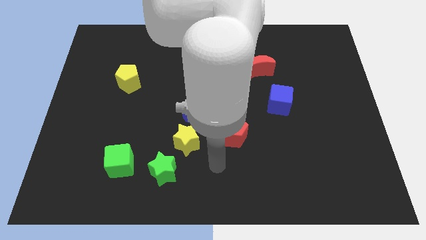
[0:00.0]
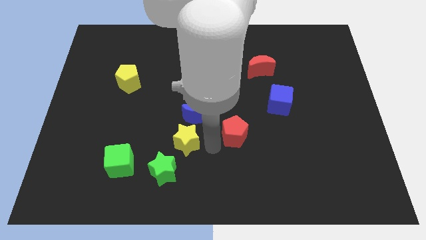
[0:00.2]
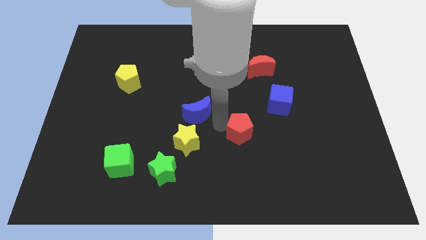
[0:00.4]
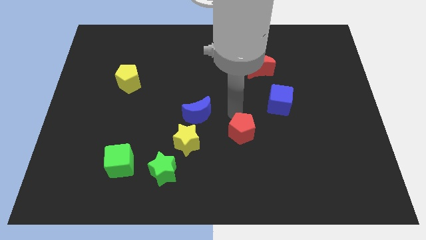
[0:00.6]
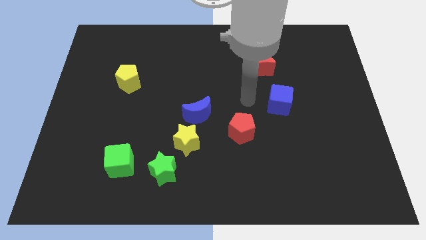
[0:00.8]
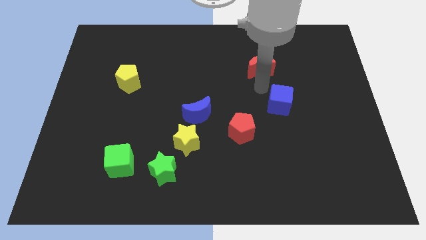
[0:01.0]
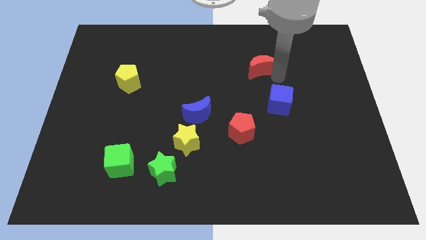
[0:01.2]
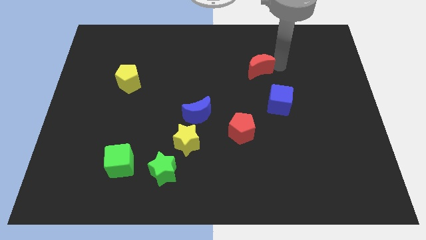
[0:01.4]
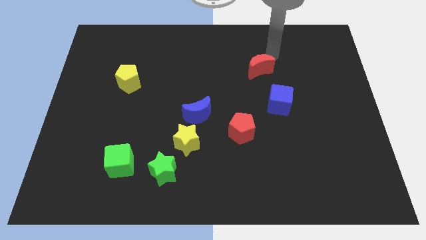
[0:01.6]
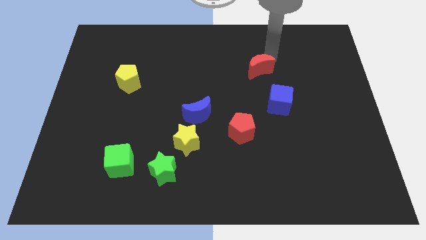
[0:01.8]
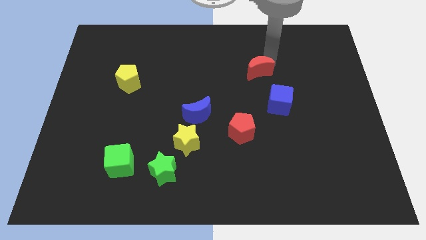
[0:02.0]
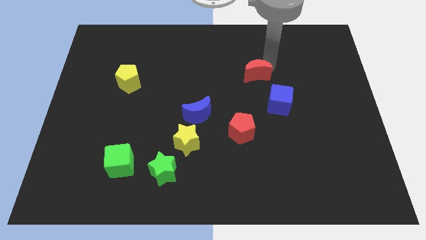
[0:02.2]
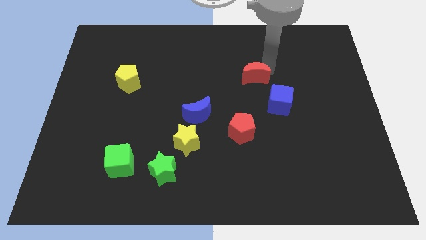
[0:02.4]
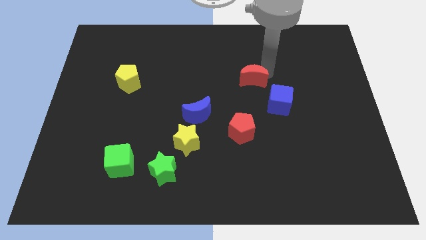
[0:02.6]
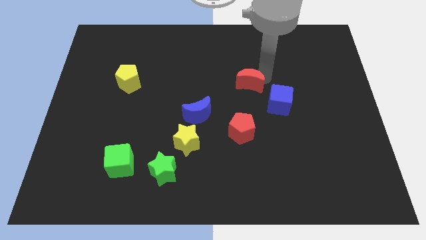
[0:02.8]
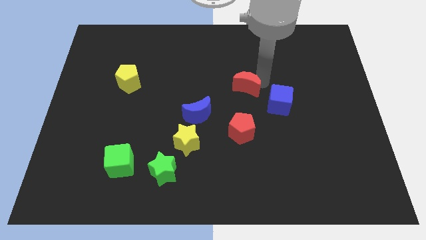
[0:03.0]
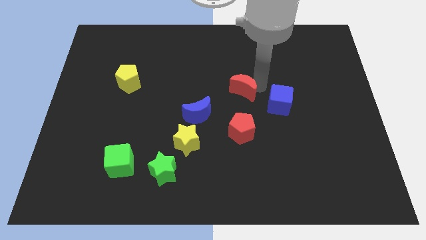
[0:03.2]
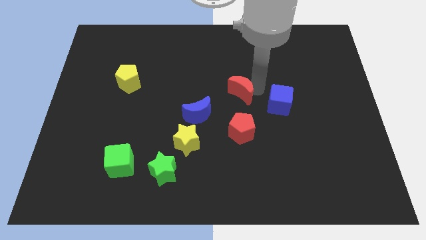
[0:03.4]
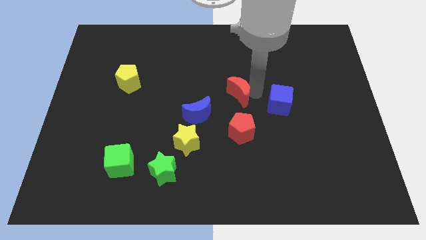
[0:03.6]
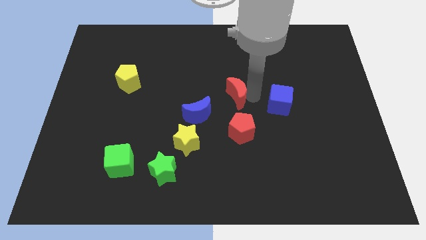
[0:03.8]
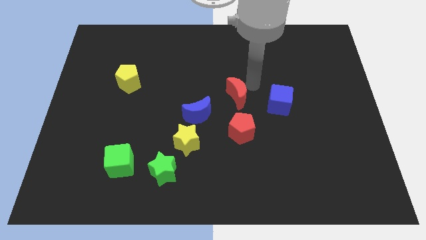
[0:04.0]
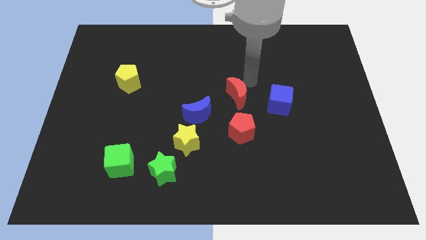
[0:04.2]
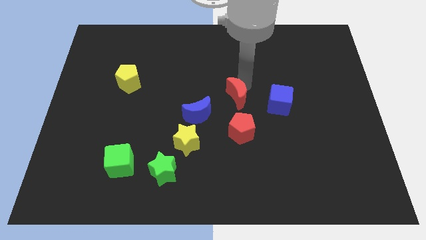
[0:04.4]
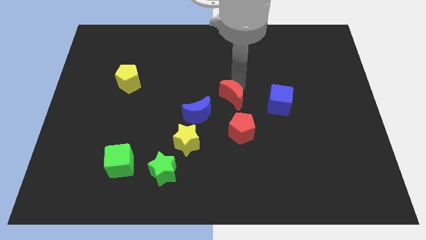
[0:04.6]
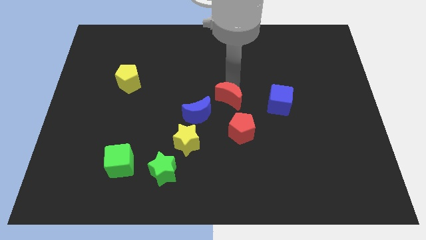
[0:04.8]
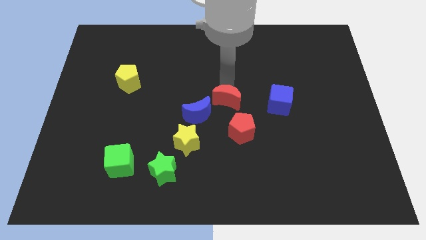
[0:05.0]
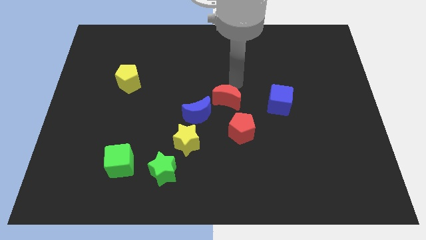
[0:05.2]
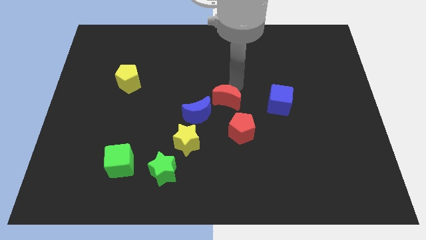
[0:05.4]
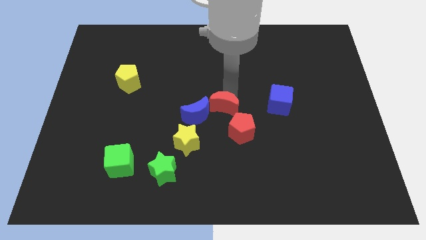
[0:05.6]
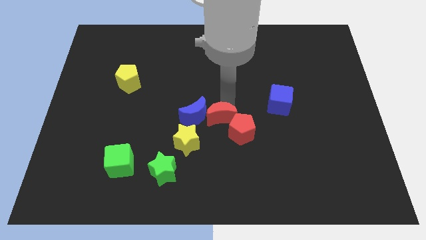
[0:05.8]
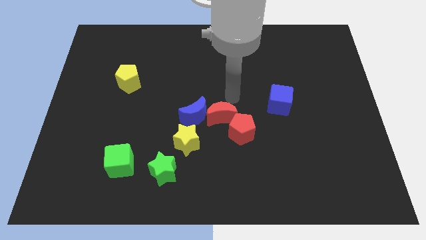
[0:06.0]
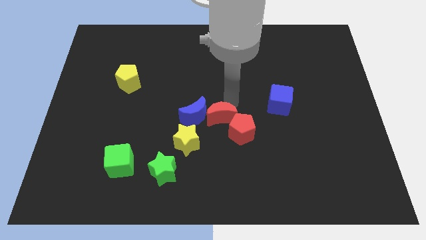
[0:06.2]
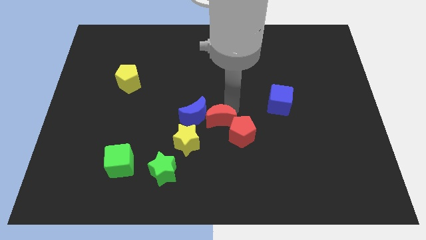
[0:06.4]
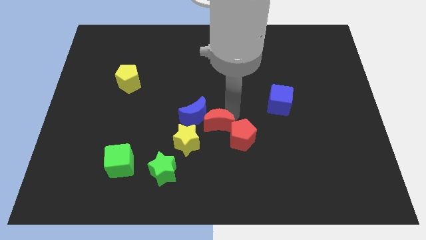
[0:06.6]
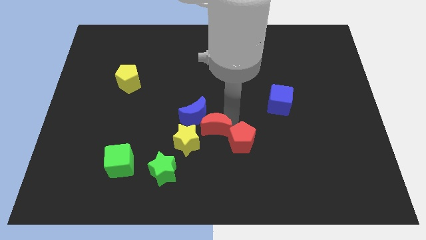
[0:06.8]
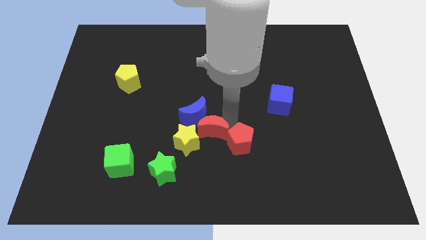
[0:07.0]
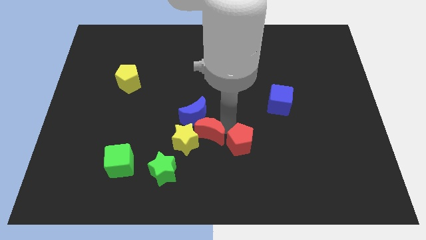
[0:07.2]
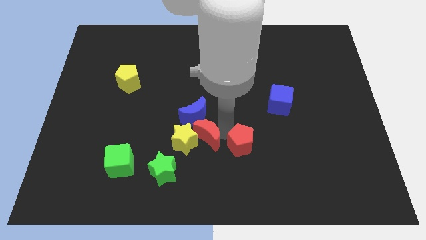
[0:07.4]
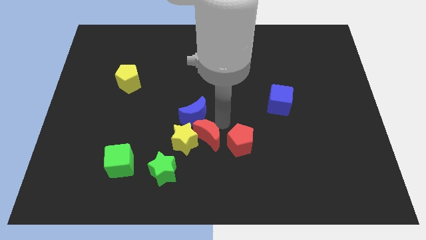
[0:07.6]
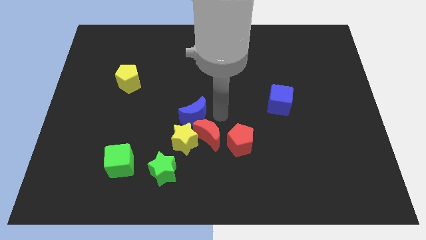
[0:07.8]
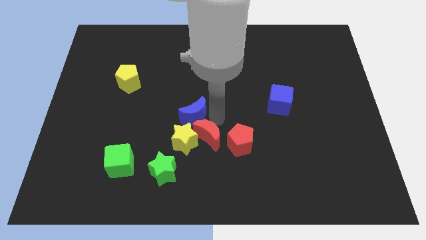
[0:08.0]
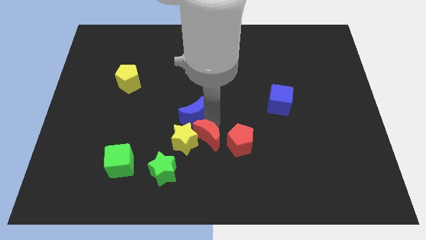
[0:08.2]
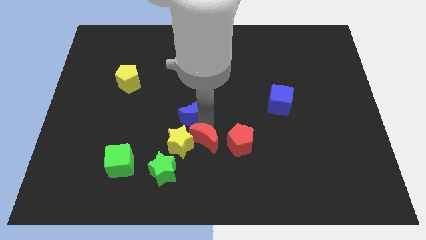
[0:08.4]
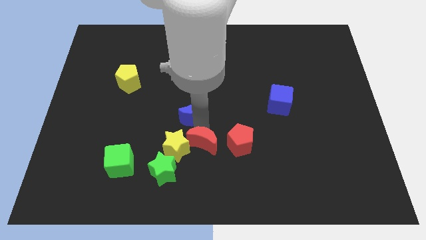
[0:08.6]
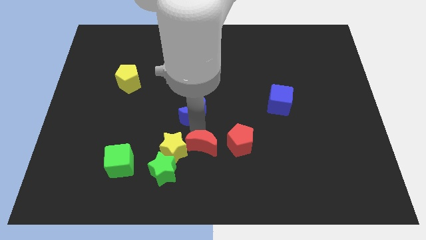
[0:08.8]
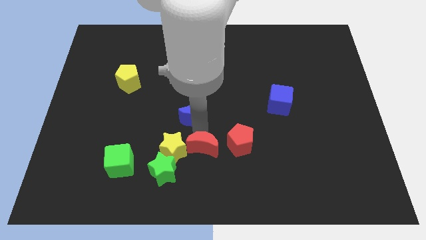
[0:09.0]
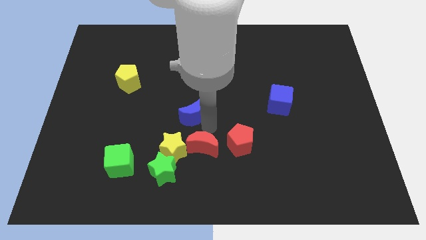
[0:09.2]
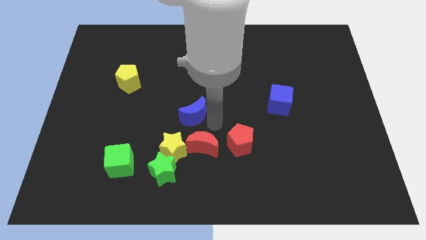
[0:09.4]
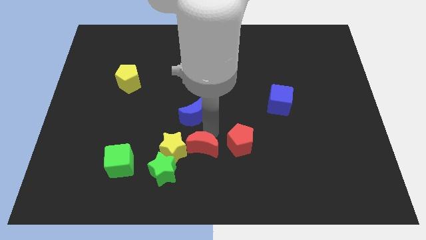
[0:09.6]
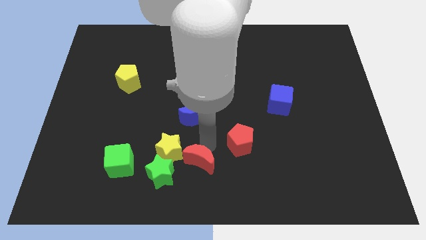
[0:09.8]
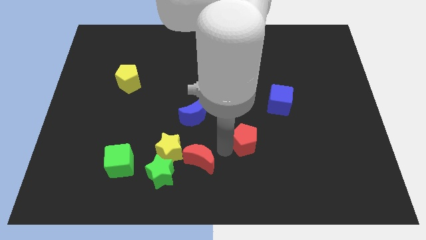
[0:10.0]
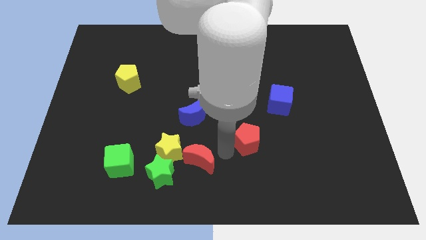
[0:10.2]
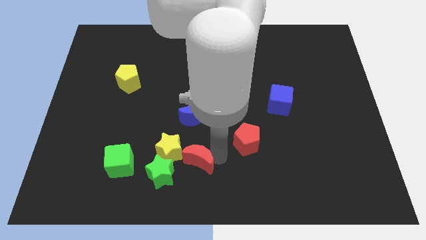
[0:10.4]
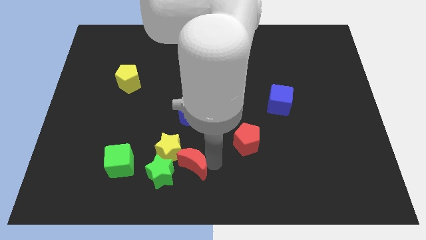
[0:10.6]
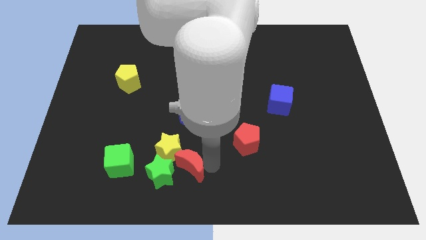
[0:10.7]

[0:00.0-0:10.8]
push the red moon towards the green star

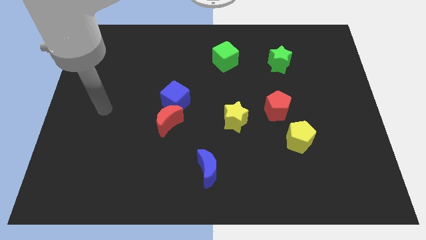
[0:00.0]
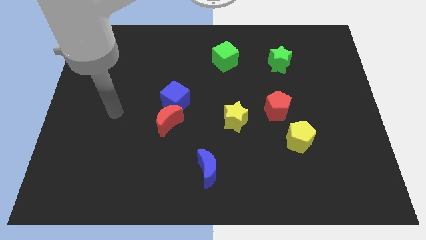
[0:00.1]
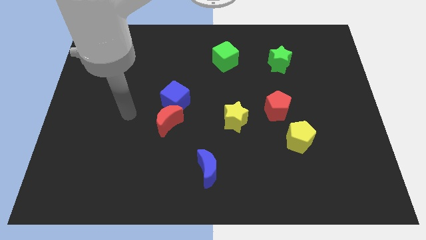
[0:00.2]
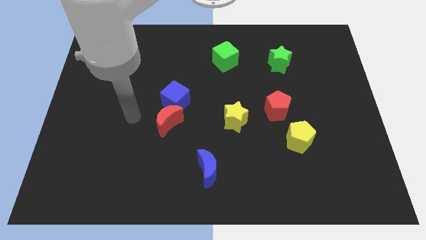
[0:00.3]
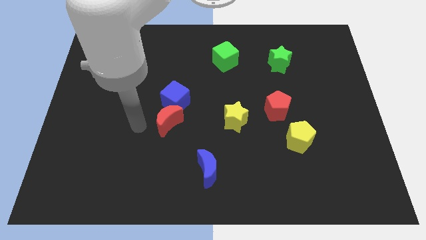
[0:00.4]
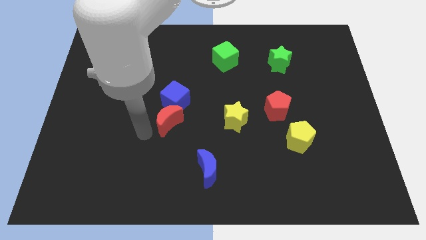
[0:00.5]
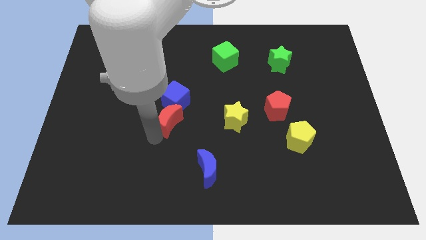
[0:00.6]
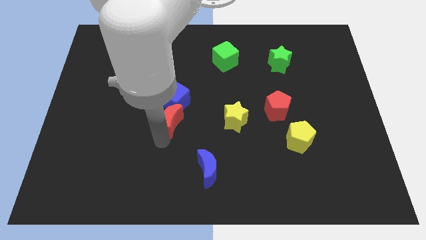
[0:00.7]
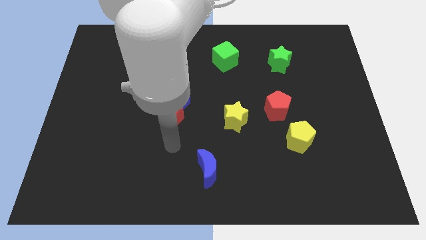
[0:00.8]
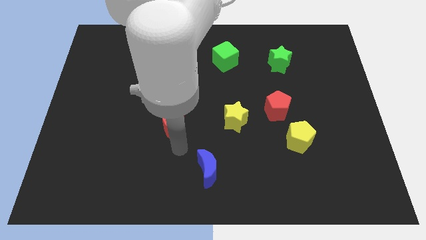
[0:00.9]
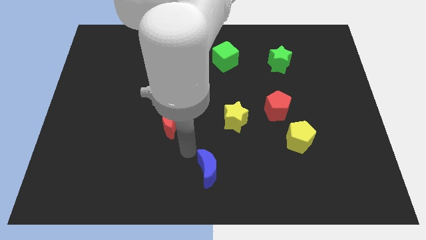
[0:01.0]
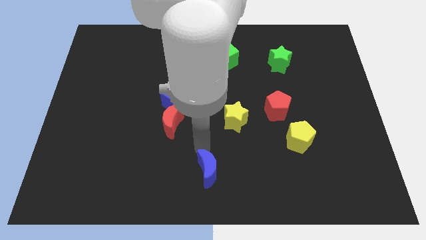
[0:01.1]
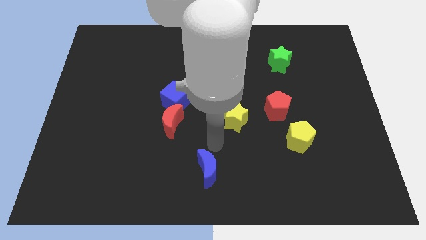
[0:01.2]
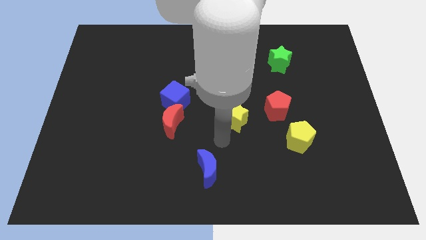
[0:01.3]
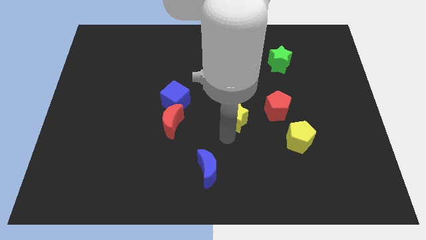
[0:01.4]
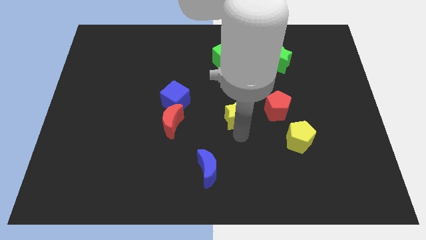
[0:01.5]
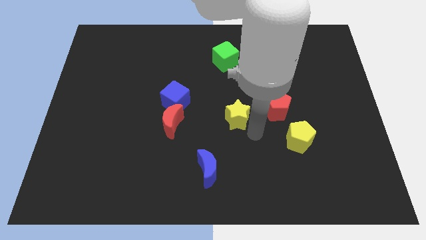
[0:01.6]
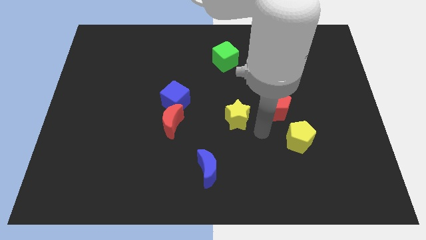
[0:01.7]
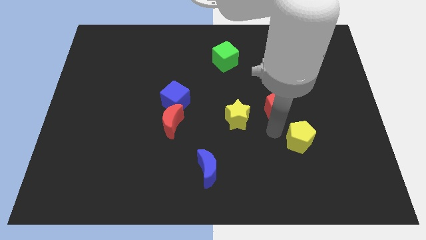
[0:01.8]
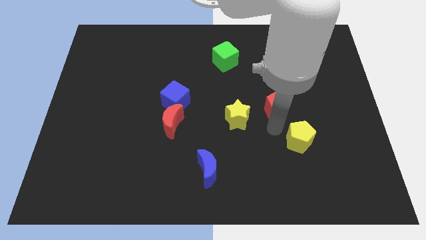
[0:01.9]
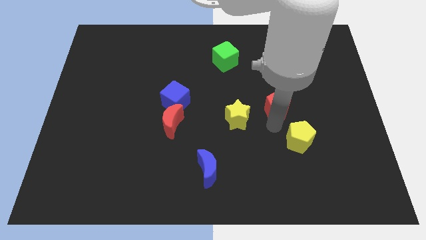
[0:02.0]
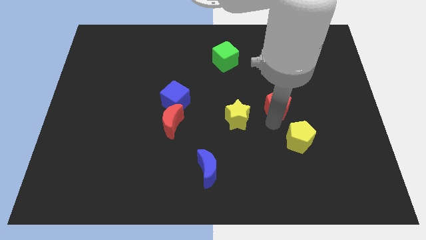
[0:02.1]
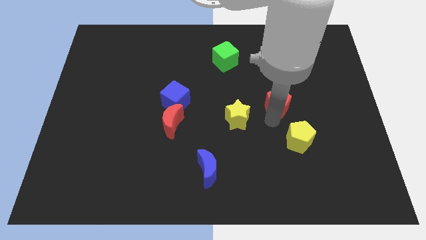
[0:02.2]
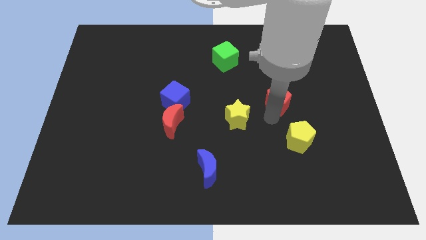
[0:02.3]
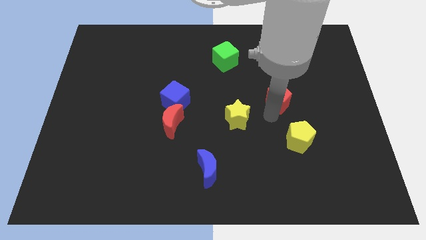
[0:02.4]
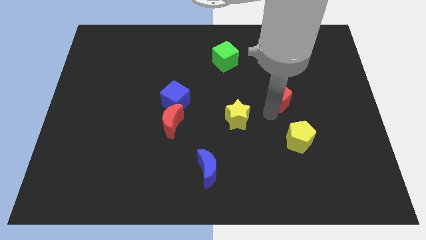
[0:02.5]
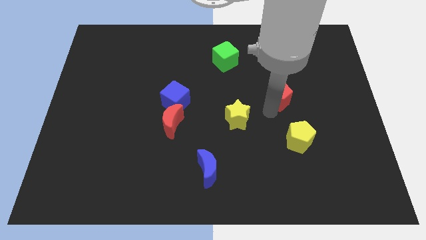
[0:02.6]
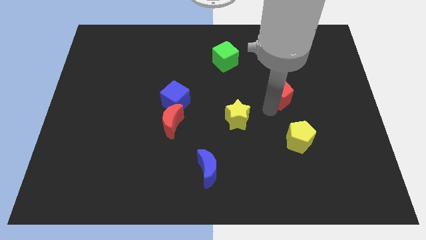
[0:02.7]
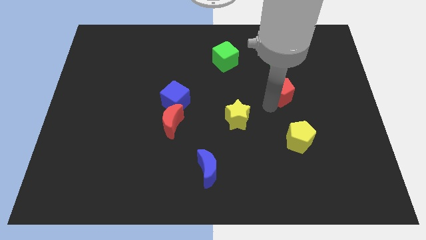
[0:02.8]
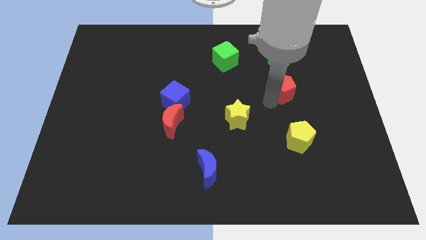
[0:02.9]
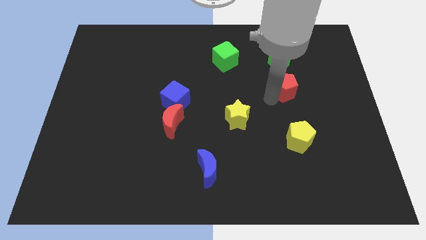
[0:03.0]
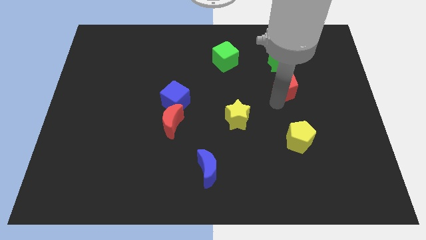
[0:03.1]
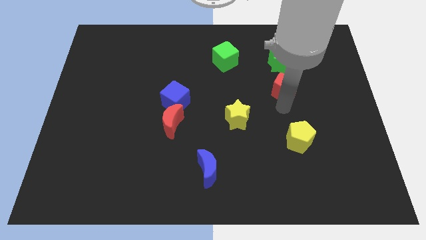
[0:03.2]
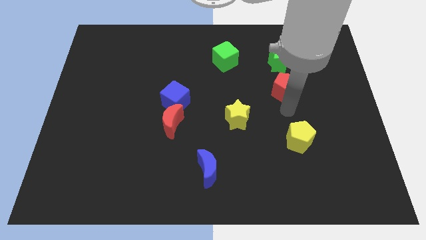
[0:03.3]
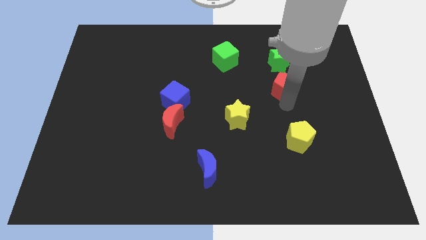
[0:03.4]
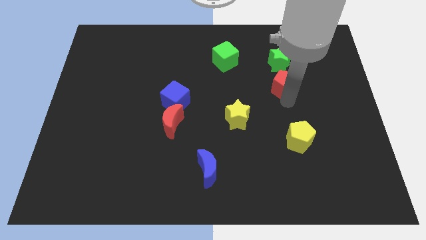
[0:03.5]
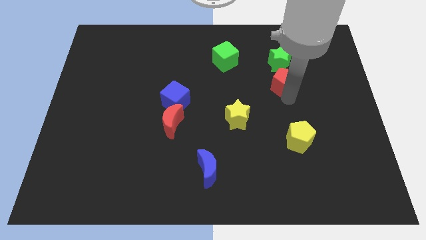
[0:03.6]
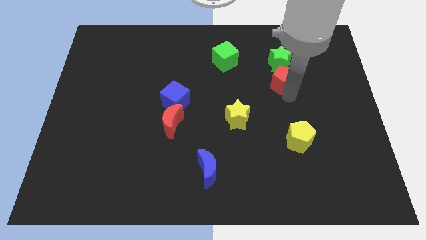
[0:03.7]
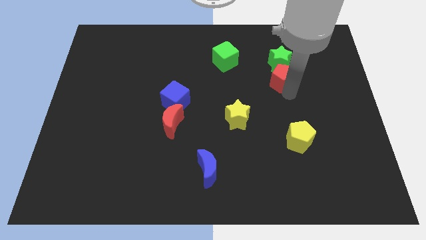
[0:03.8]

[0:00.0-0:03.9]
push the red pentagon next to the green star
